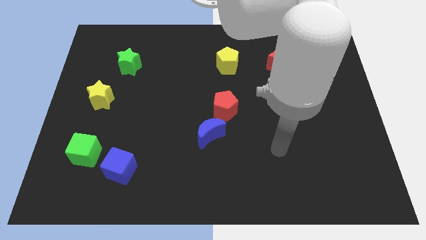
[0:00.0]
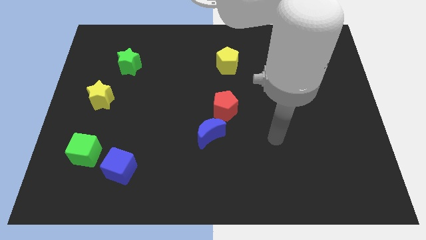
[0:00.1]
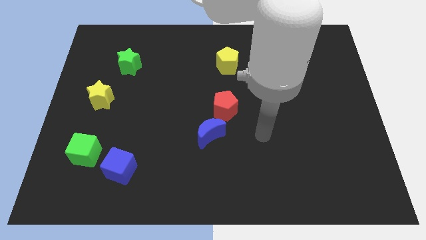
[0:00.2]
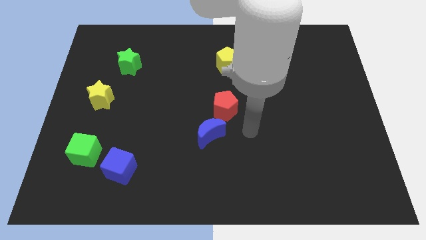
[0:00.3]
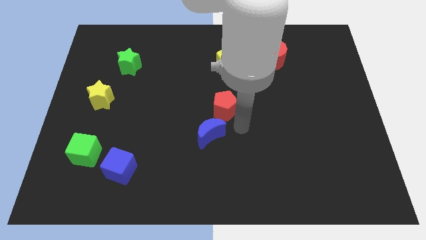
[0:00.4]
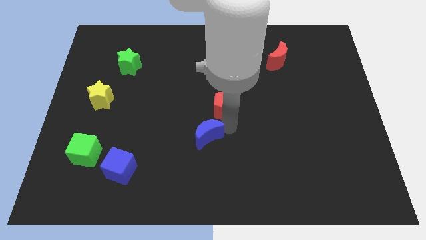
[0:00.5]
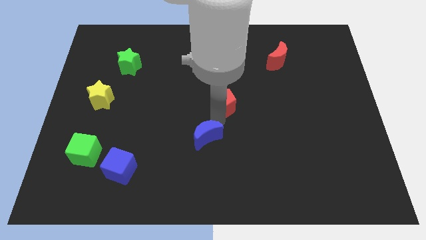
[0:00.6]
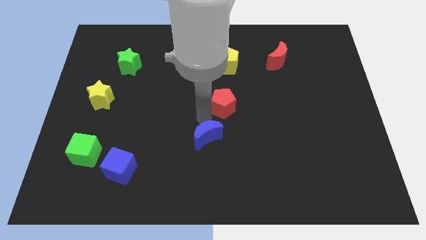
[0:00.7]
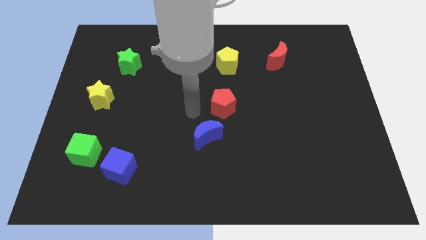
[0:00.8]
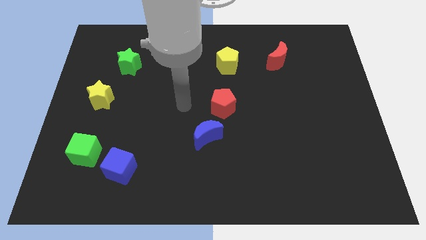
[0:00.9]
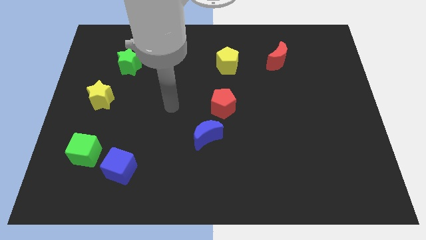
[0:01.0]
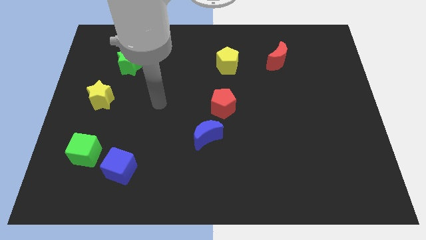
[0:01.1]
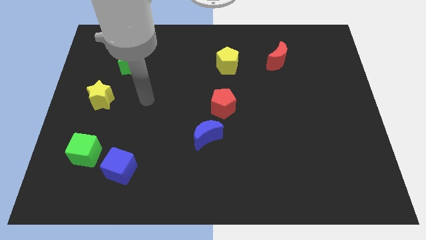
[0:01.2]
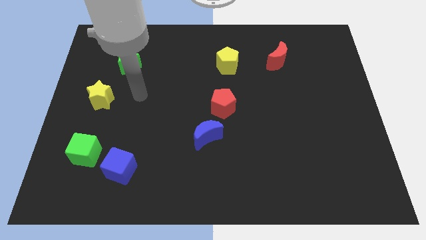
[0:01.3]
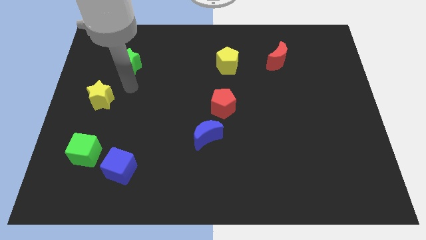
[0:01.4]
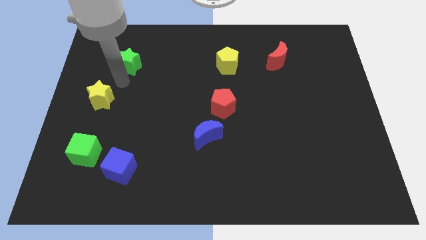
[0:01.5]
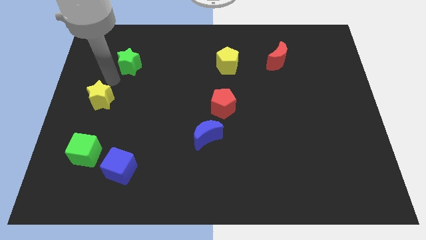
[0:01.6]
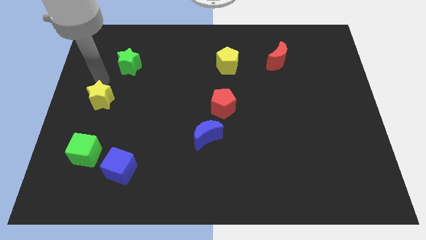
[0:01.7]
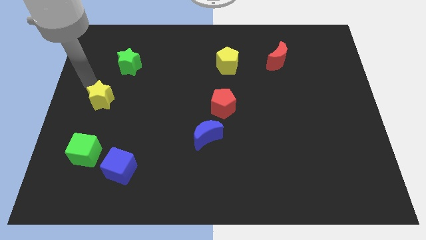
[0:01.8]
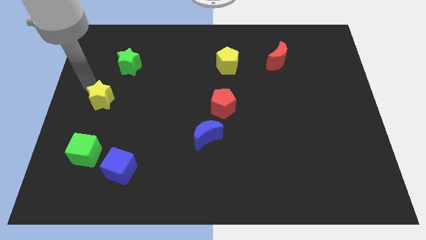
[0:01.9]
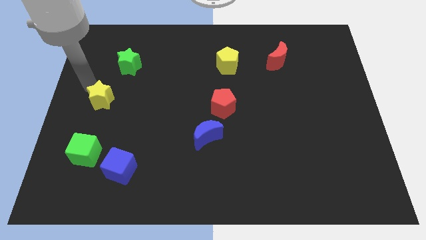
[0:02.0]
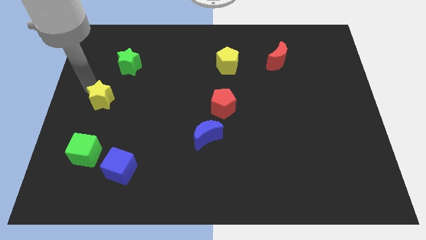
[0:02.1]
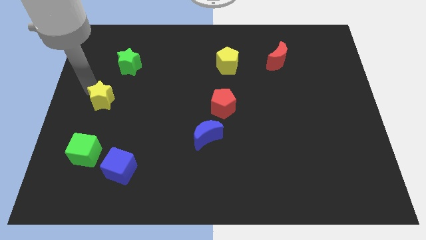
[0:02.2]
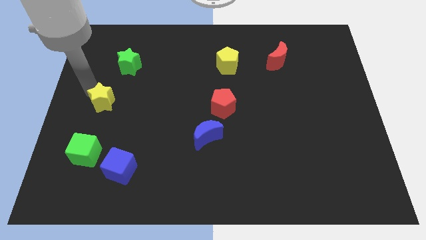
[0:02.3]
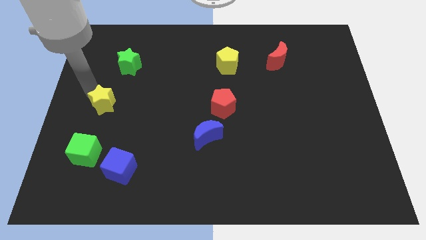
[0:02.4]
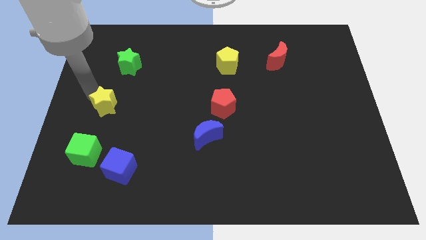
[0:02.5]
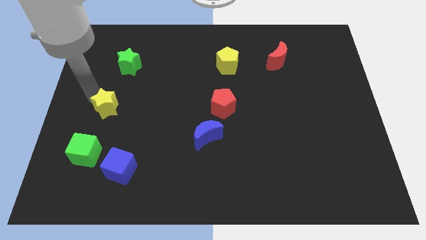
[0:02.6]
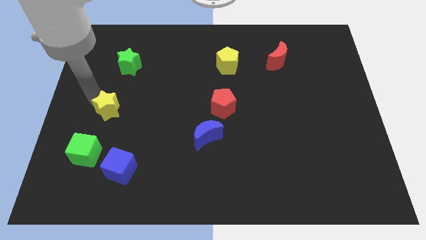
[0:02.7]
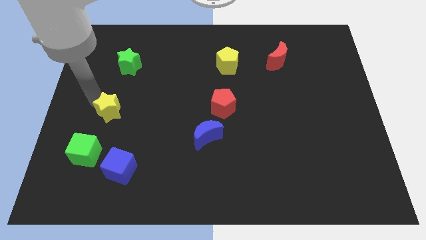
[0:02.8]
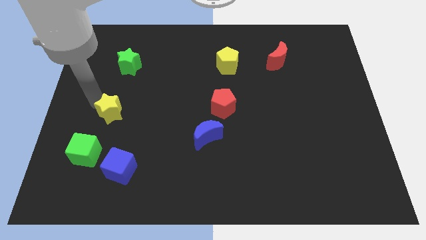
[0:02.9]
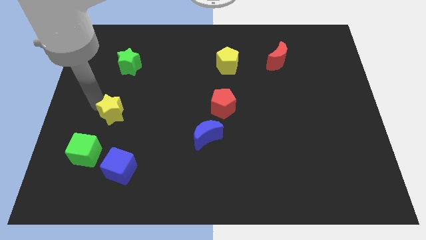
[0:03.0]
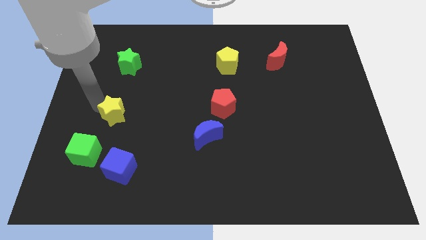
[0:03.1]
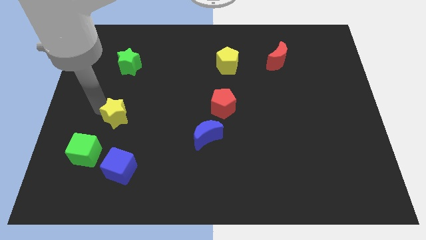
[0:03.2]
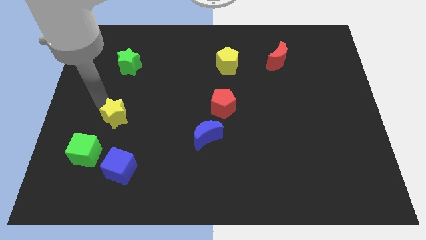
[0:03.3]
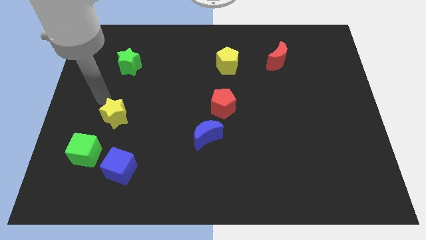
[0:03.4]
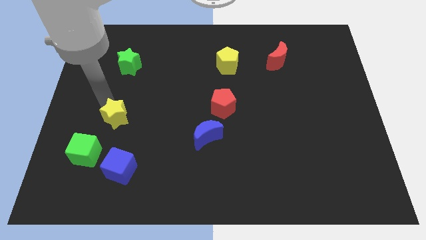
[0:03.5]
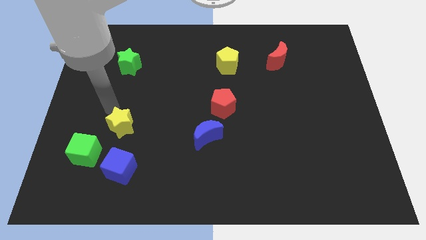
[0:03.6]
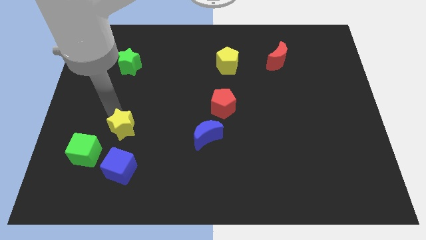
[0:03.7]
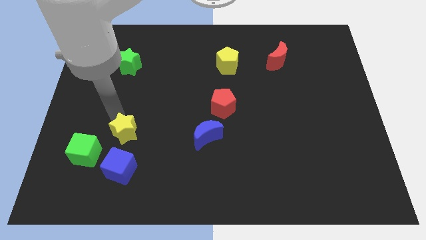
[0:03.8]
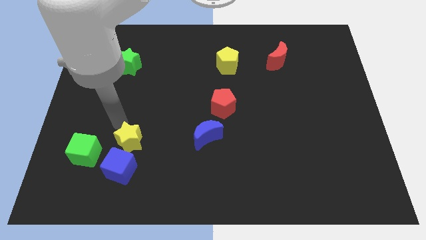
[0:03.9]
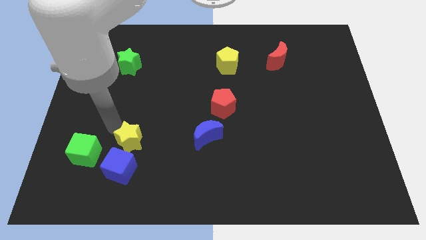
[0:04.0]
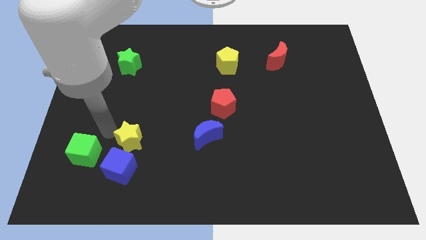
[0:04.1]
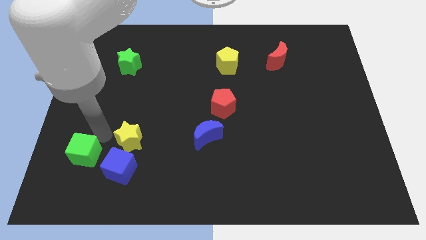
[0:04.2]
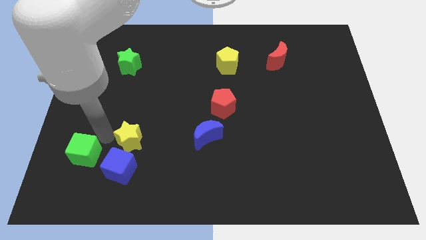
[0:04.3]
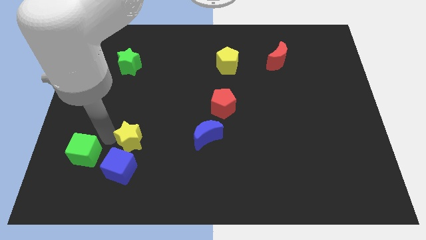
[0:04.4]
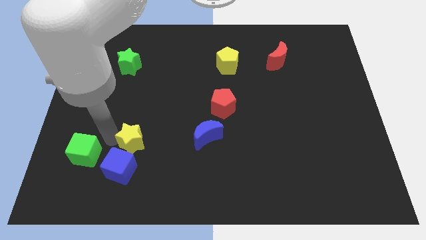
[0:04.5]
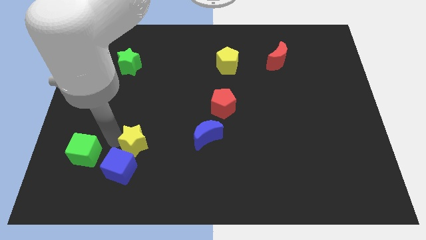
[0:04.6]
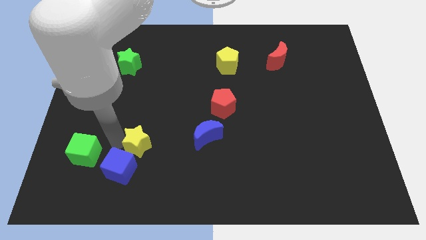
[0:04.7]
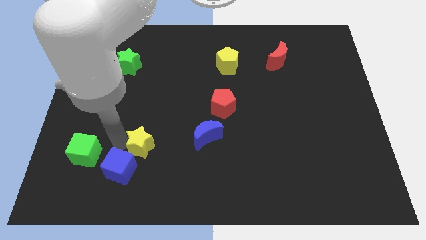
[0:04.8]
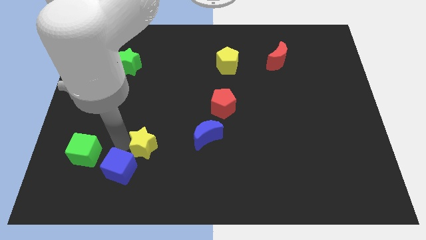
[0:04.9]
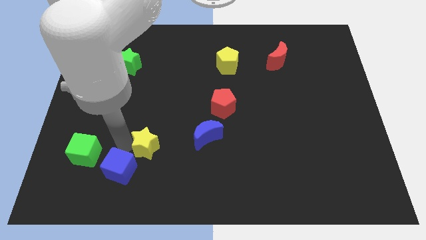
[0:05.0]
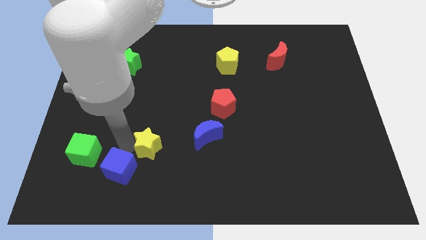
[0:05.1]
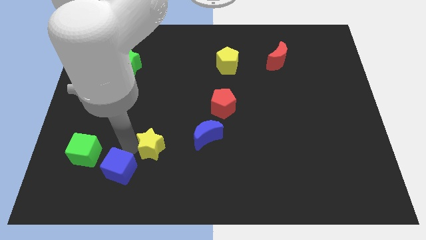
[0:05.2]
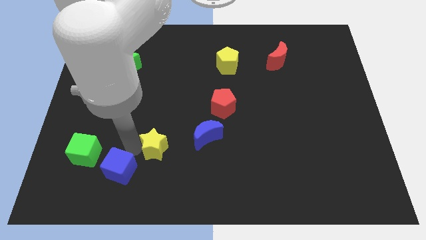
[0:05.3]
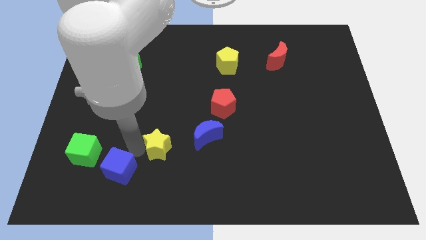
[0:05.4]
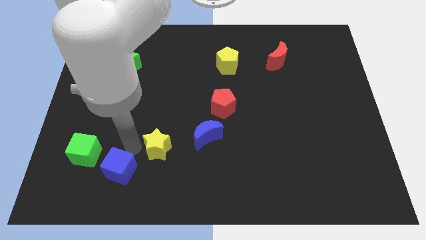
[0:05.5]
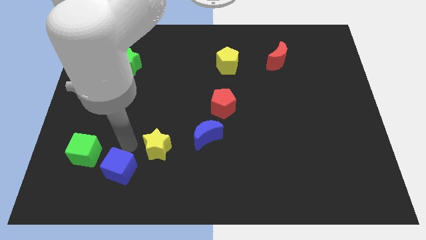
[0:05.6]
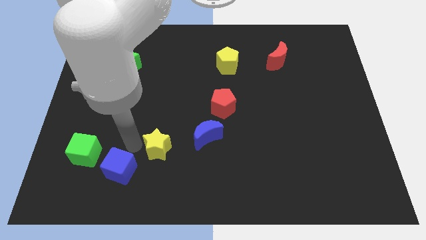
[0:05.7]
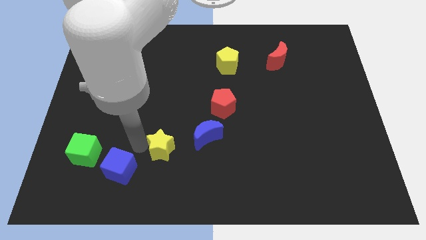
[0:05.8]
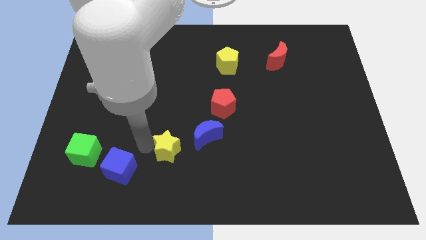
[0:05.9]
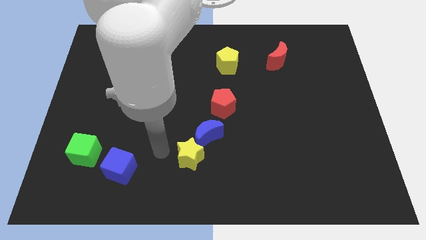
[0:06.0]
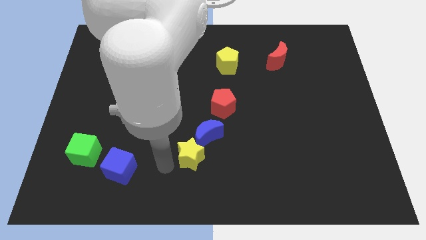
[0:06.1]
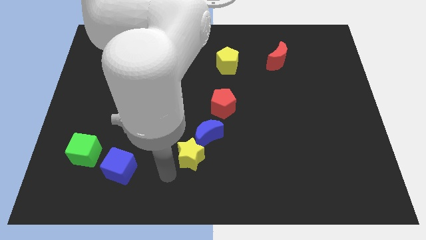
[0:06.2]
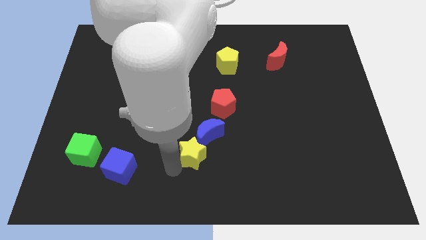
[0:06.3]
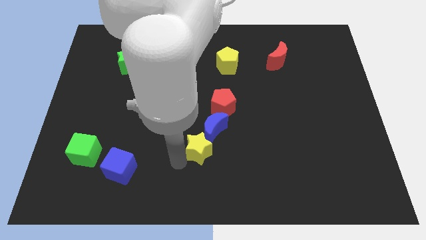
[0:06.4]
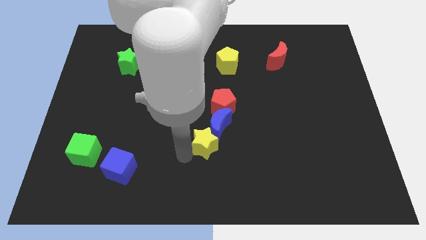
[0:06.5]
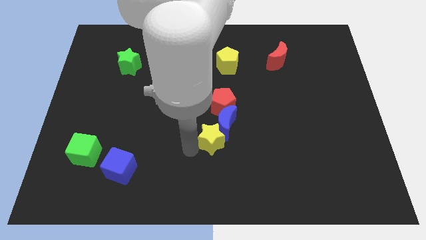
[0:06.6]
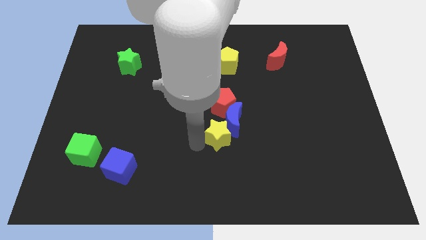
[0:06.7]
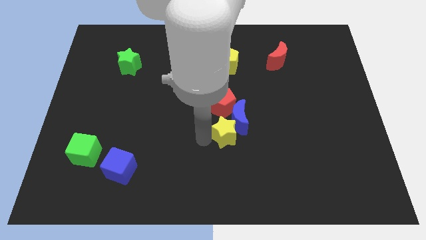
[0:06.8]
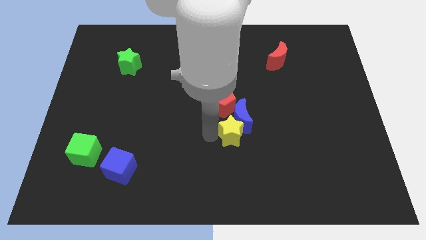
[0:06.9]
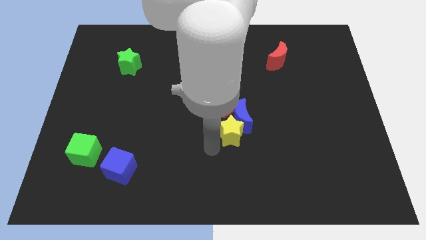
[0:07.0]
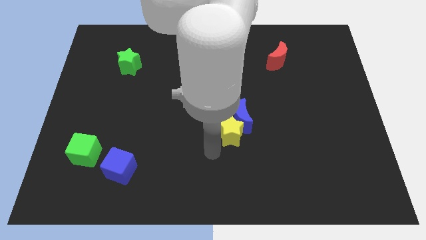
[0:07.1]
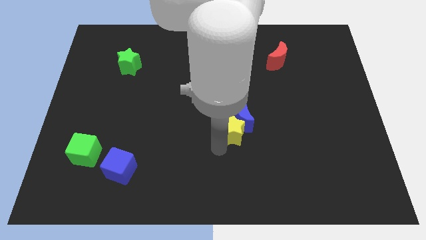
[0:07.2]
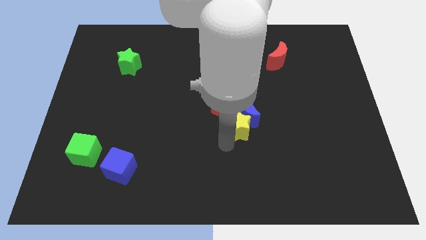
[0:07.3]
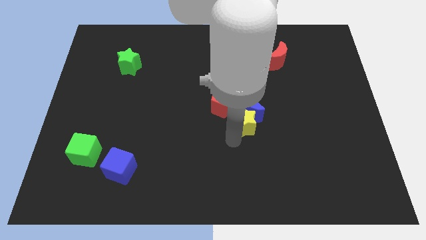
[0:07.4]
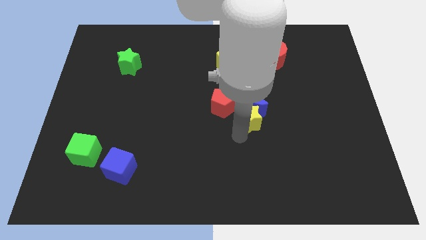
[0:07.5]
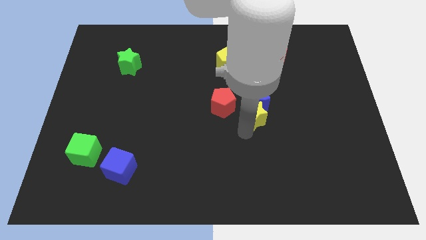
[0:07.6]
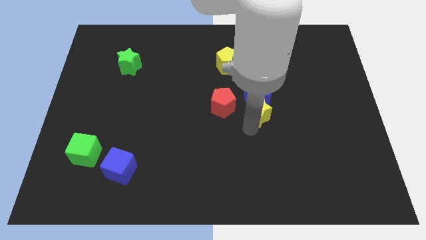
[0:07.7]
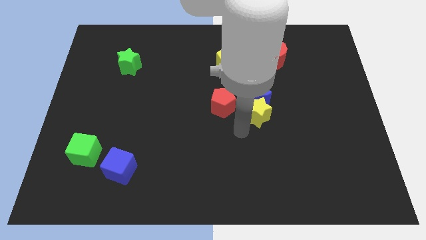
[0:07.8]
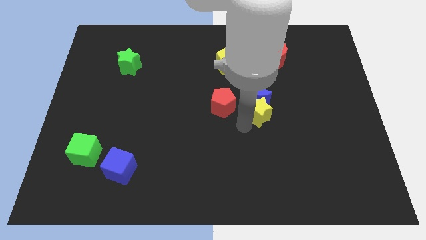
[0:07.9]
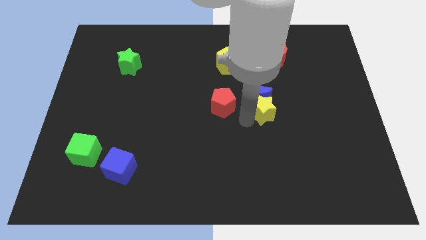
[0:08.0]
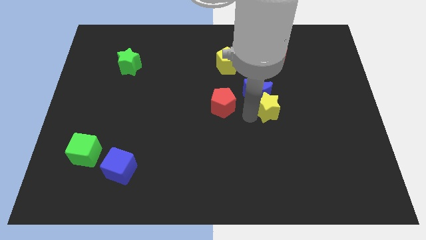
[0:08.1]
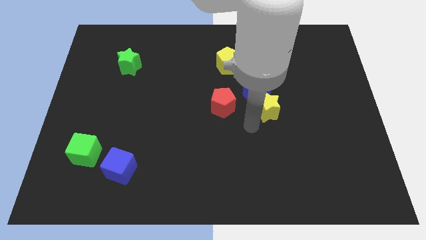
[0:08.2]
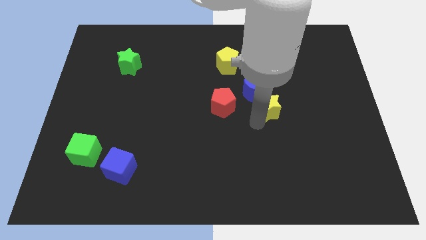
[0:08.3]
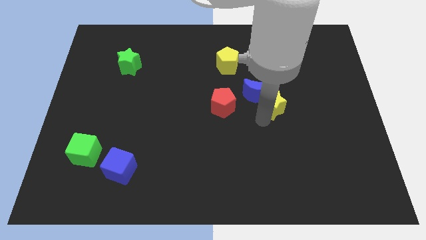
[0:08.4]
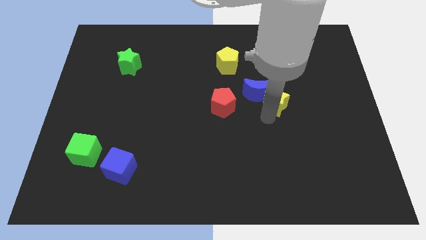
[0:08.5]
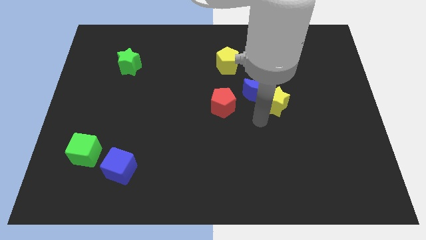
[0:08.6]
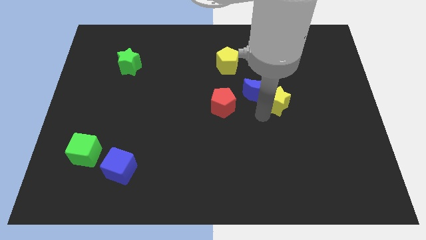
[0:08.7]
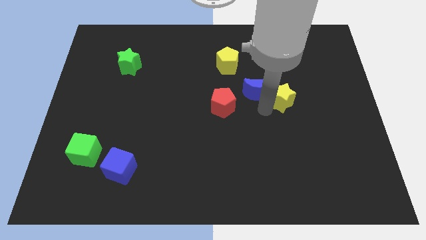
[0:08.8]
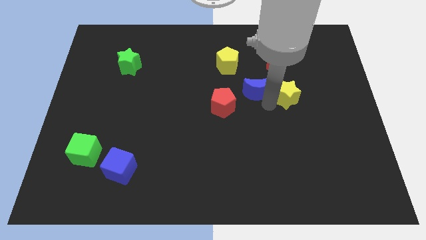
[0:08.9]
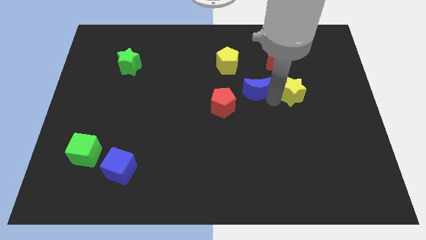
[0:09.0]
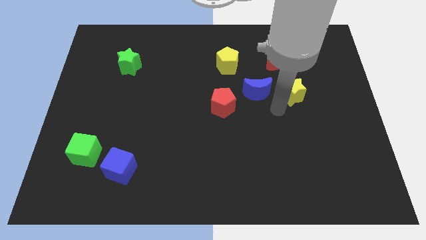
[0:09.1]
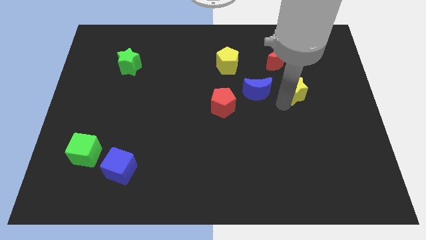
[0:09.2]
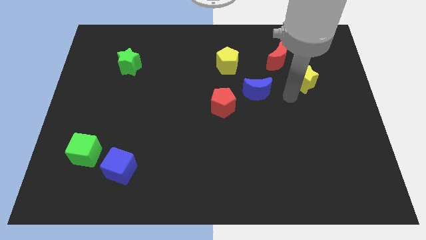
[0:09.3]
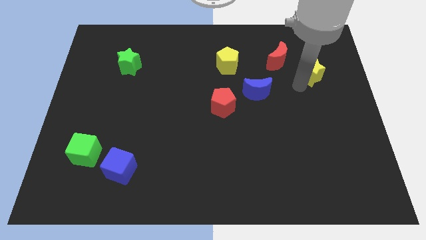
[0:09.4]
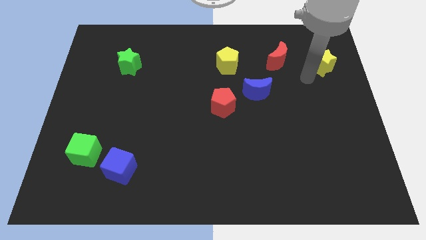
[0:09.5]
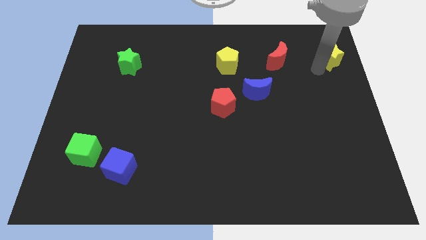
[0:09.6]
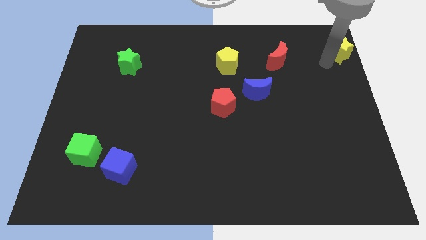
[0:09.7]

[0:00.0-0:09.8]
put the yellow star to the upper right corner
